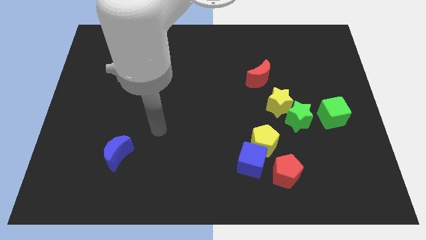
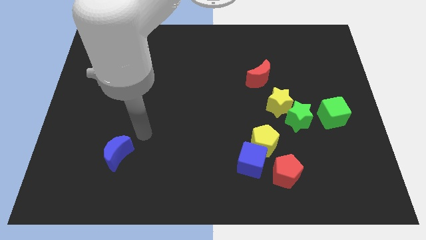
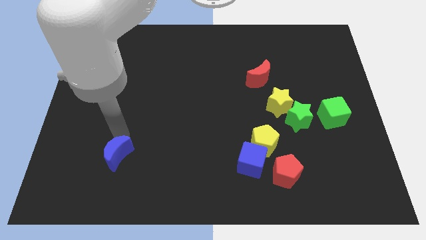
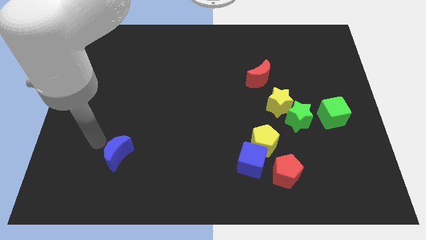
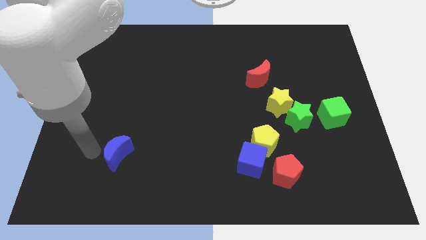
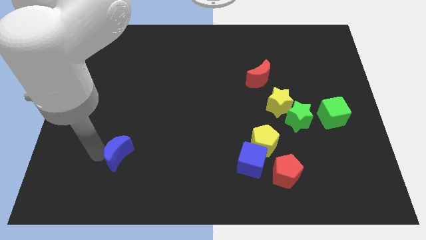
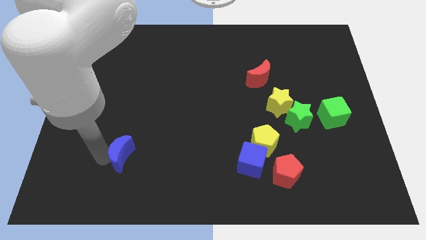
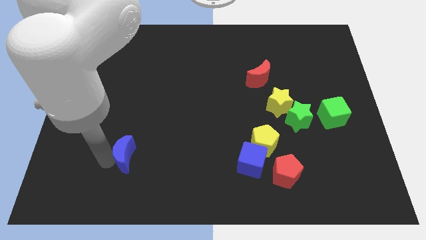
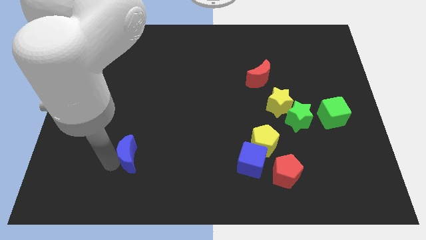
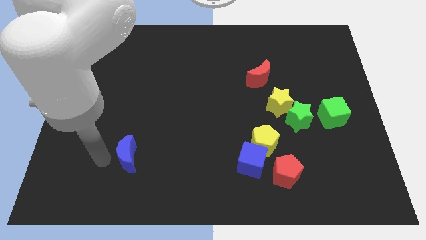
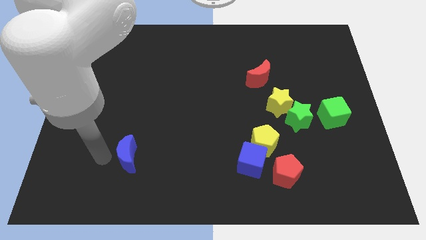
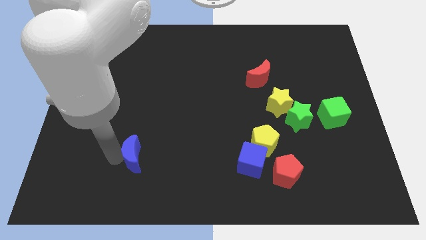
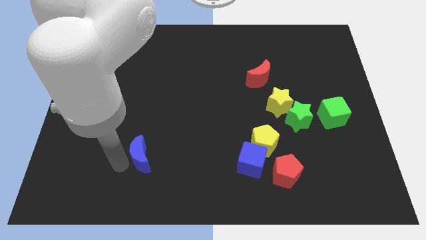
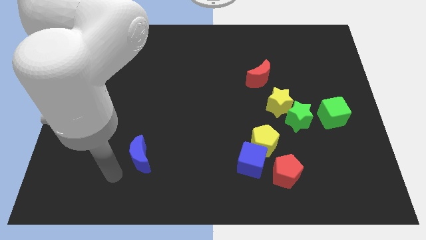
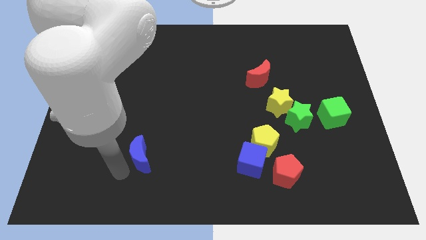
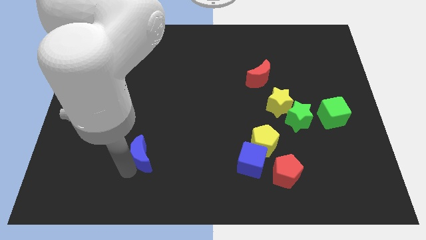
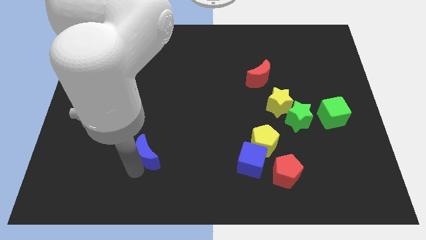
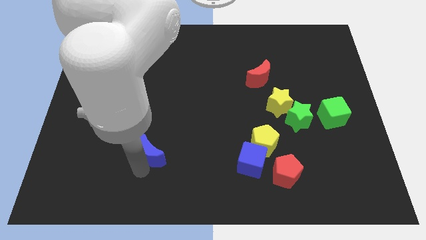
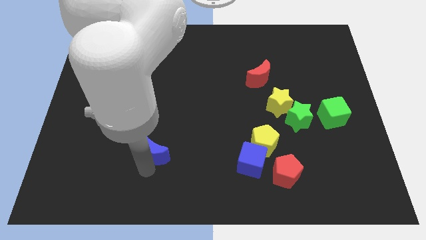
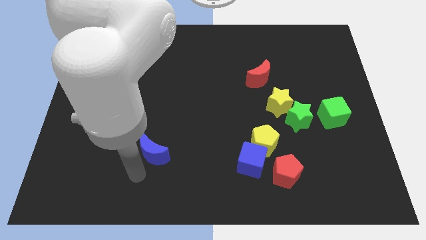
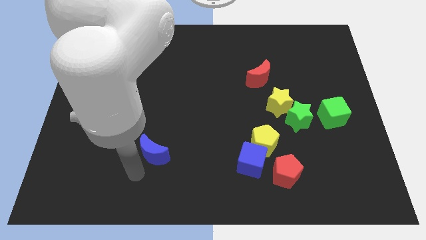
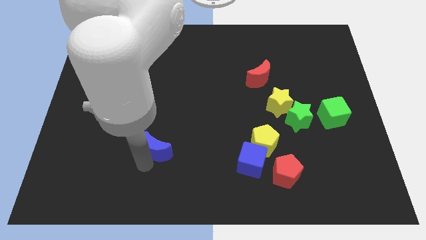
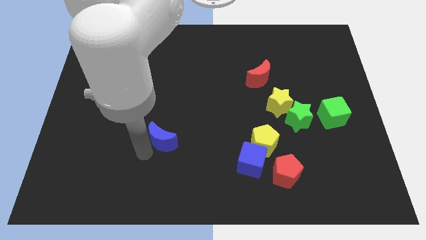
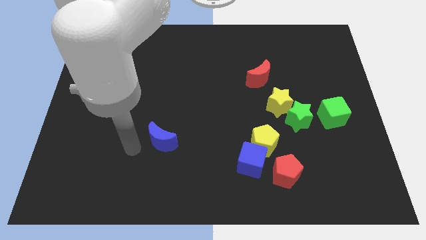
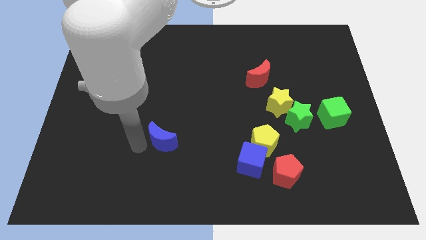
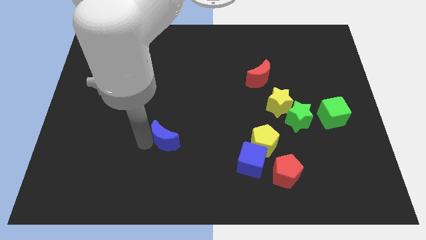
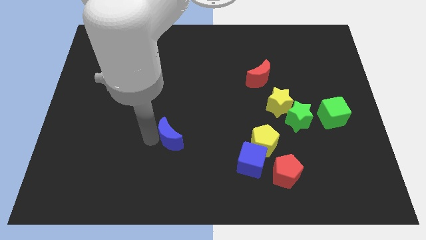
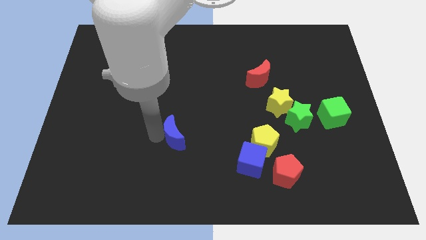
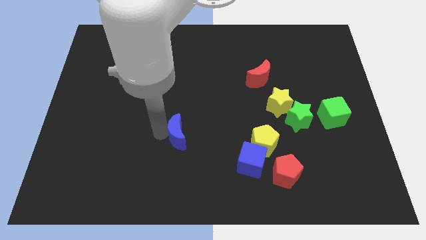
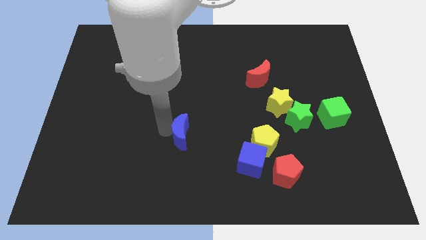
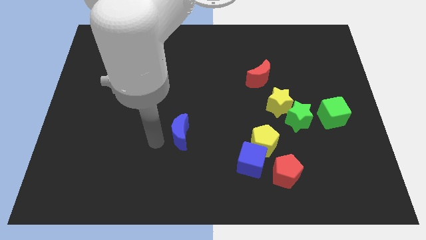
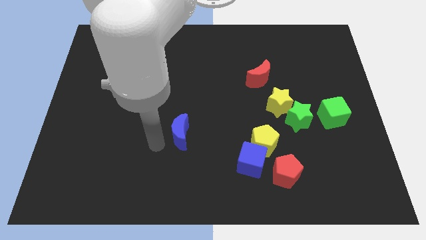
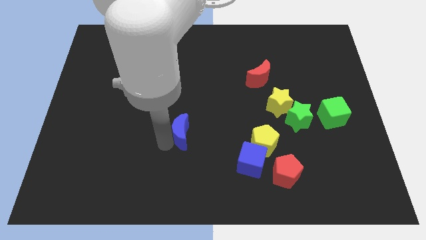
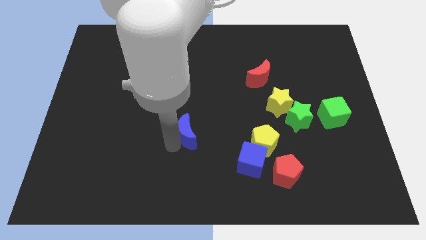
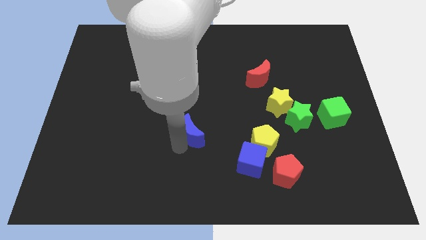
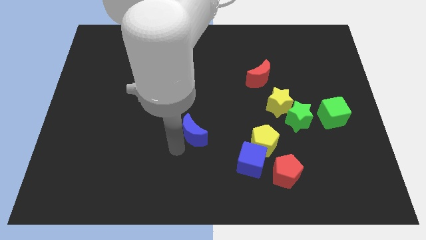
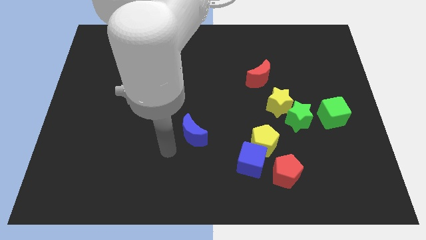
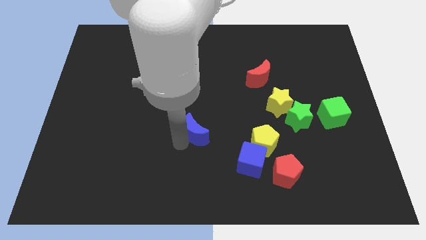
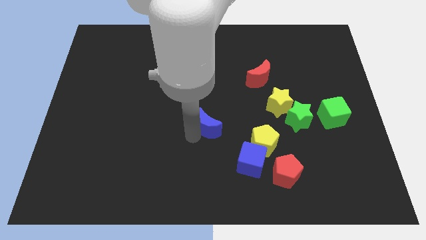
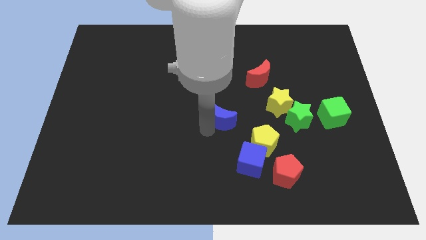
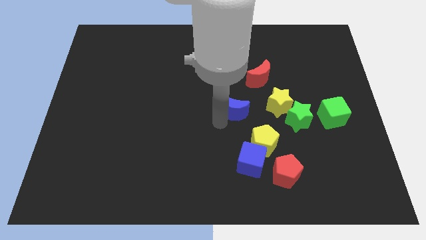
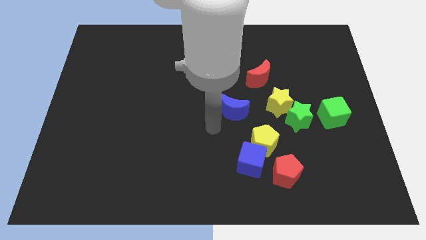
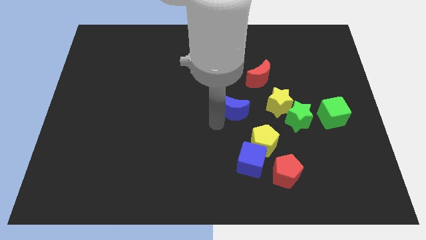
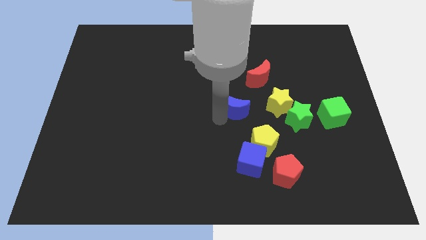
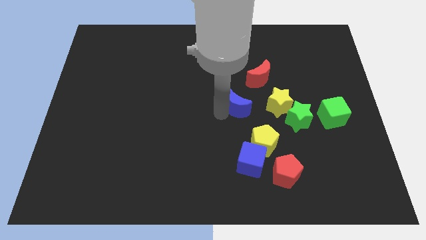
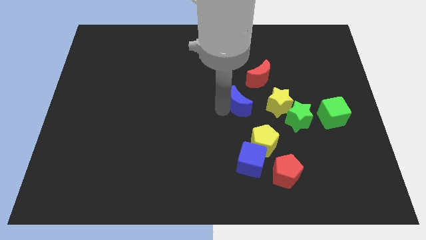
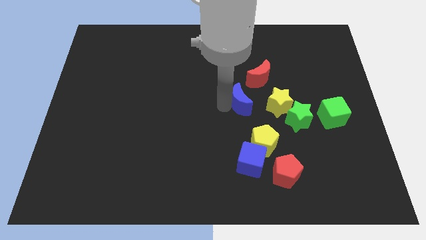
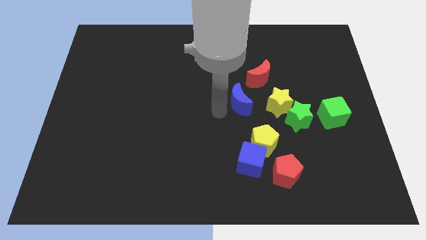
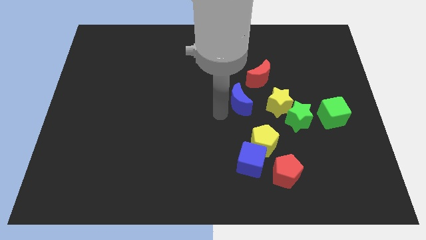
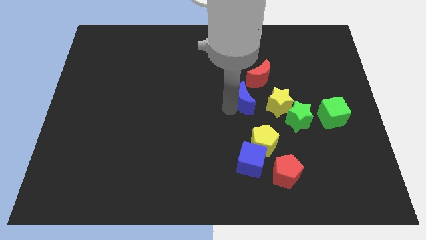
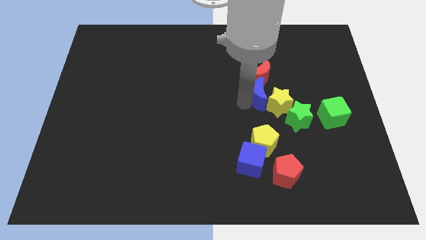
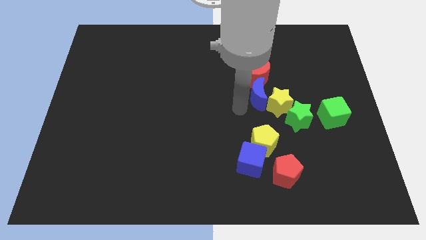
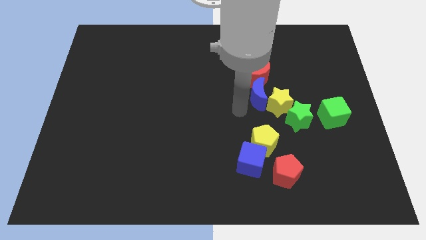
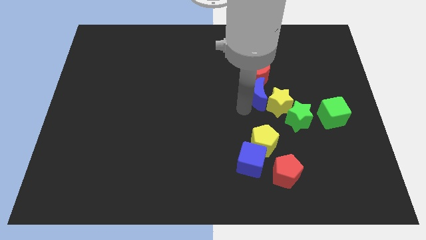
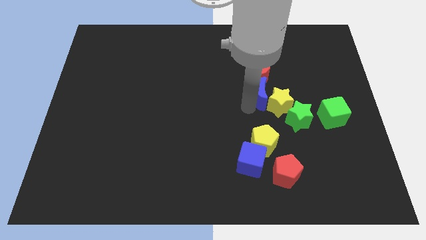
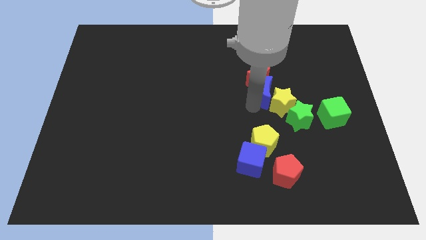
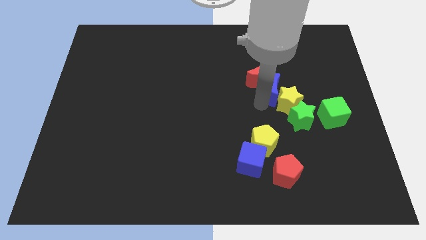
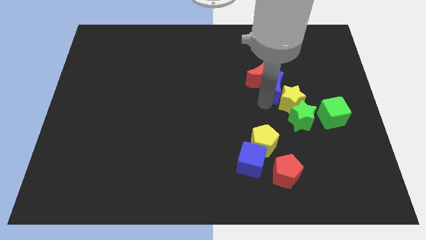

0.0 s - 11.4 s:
slide the blue moon right of the red moon

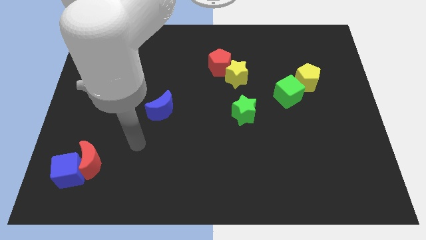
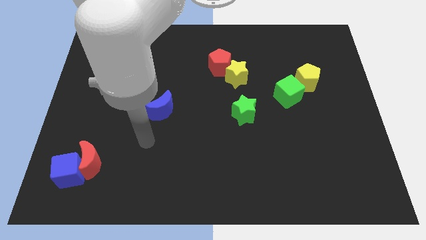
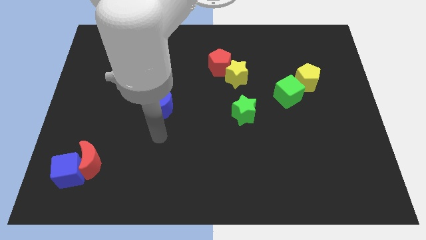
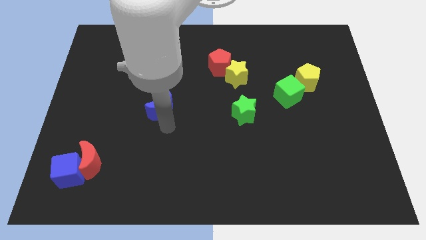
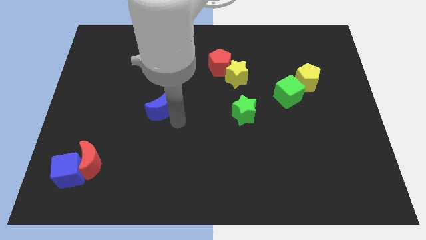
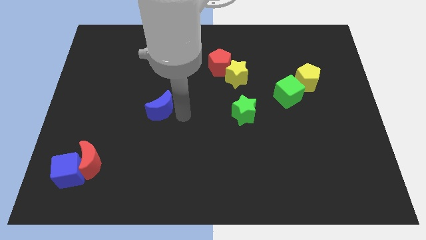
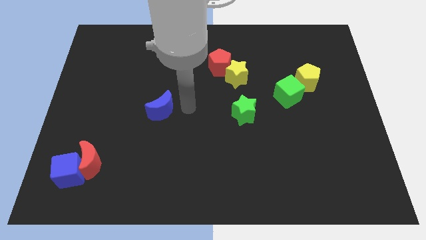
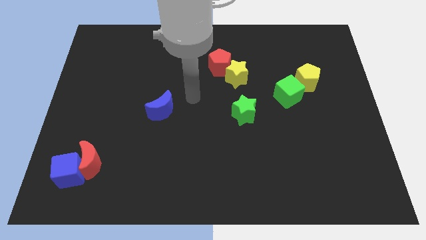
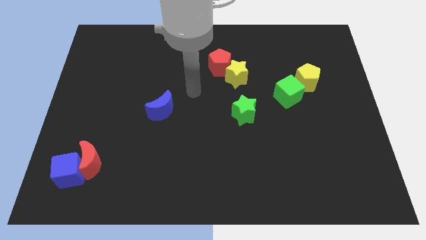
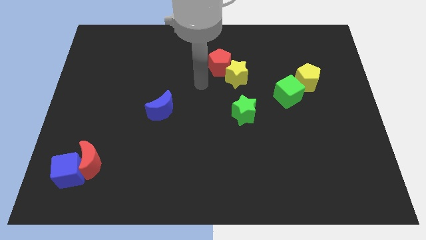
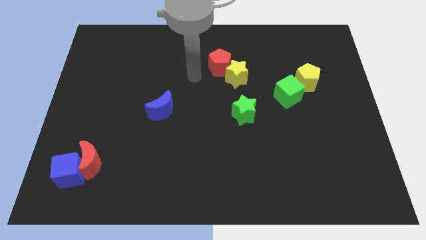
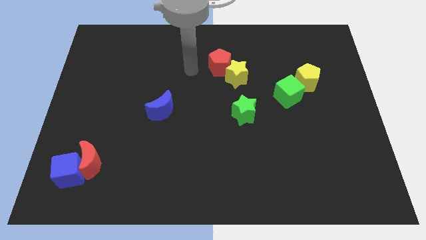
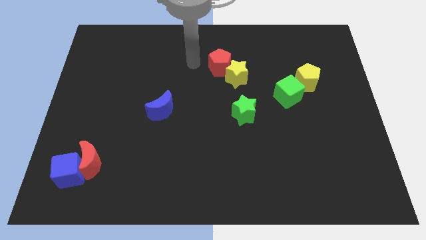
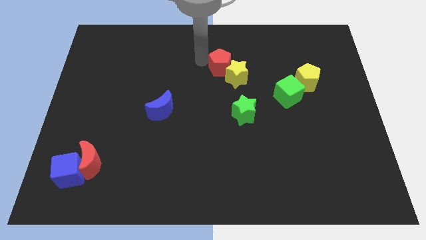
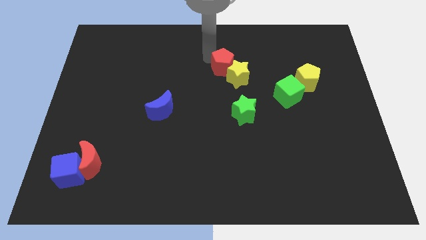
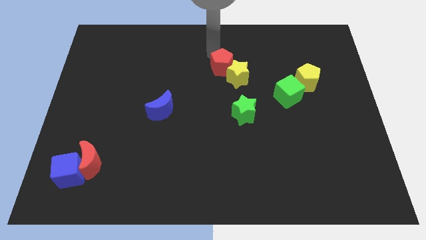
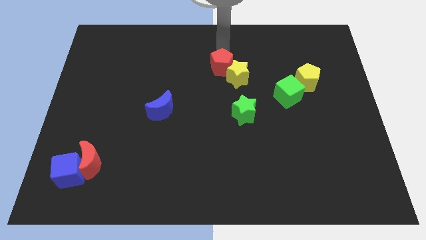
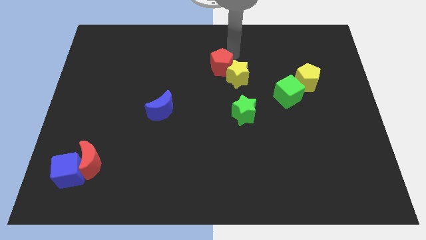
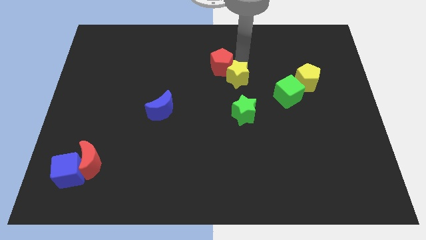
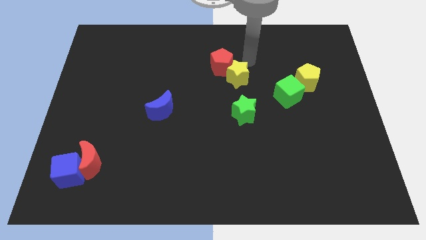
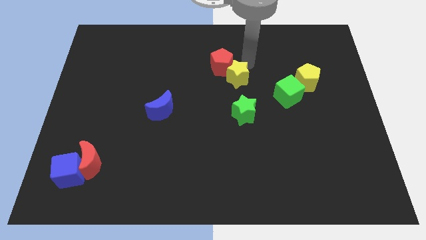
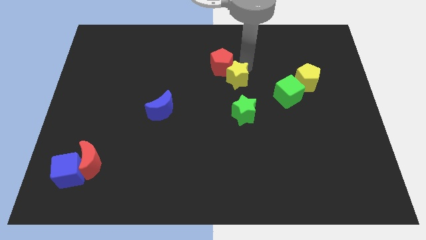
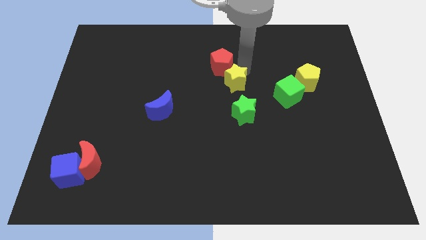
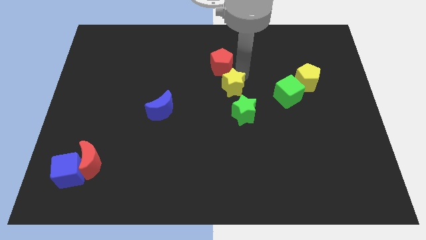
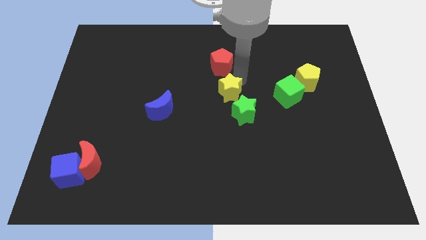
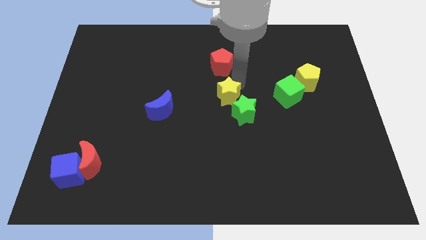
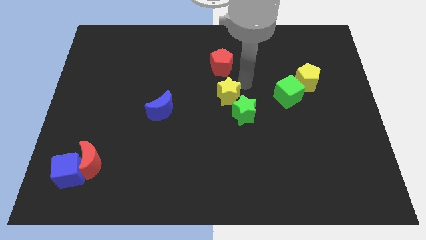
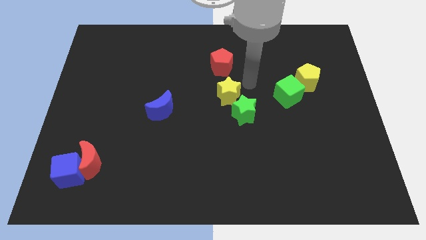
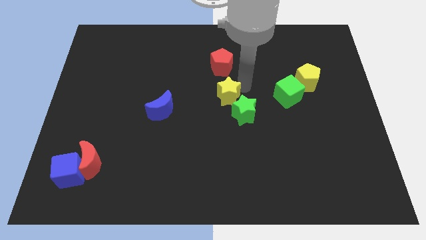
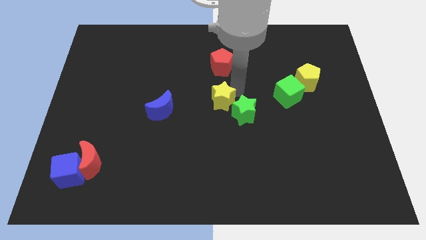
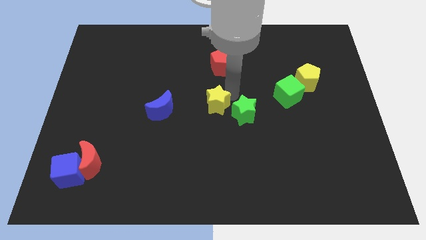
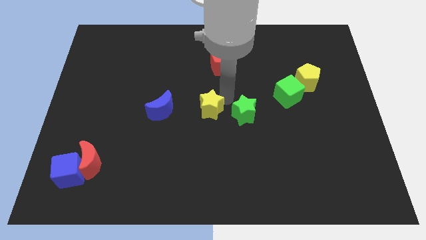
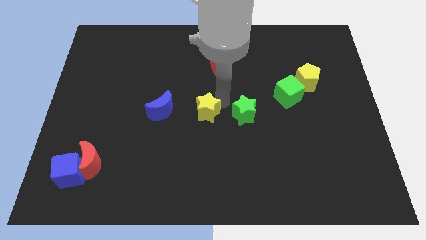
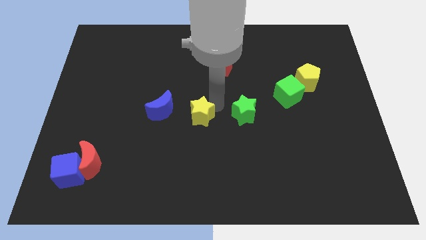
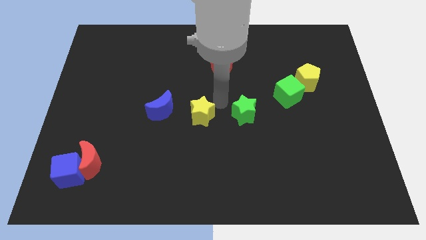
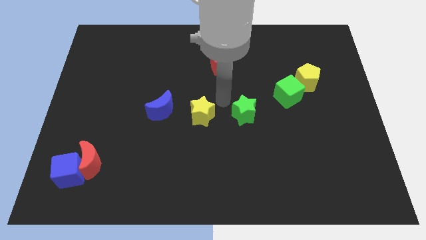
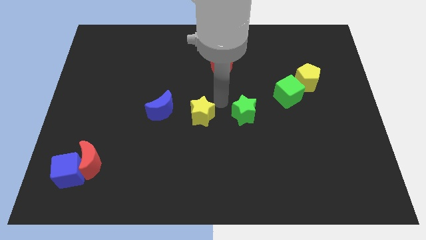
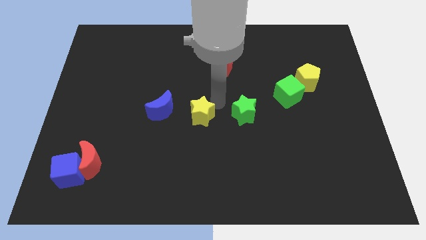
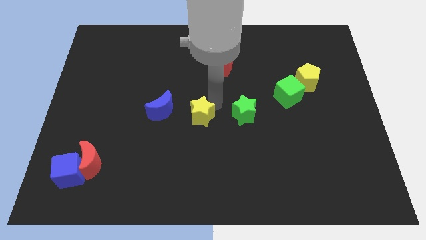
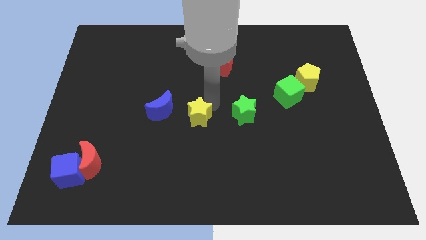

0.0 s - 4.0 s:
slide the yellow star to the bottom right of the blue moon
